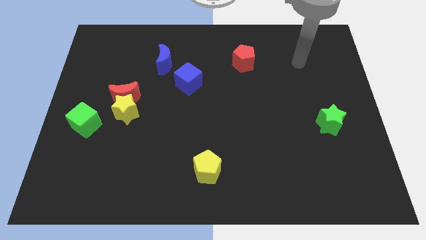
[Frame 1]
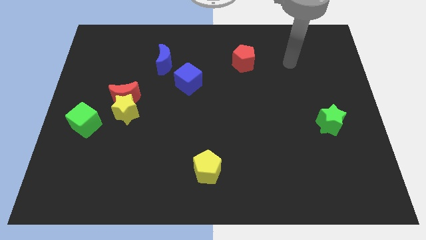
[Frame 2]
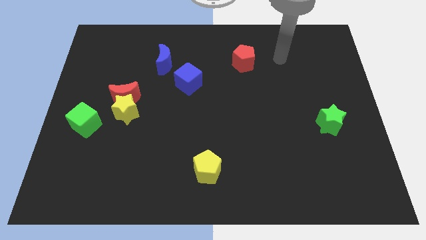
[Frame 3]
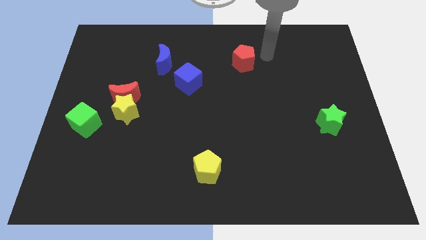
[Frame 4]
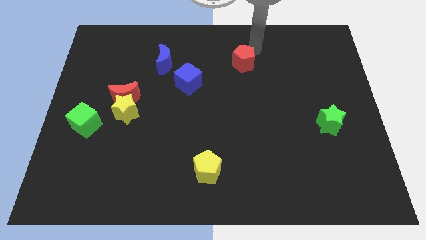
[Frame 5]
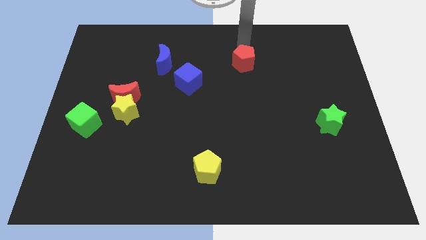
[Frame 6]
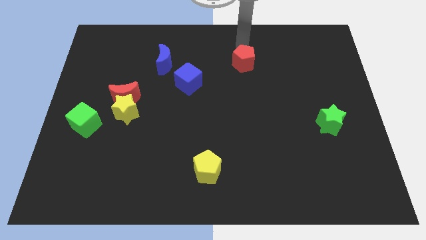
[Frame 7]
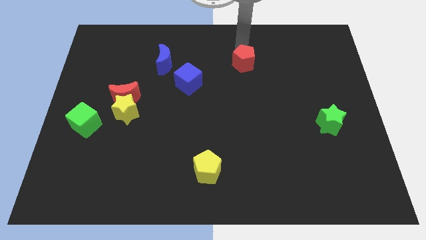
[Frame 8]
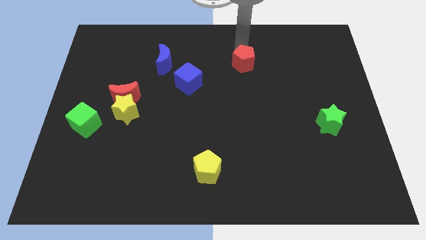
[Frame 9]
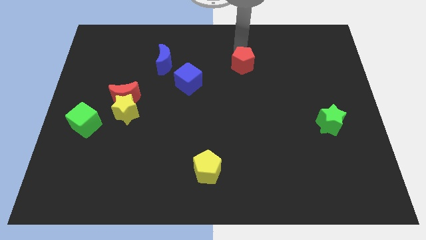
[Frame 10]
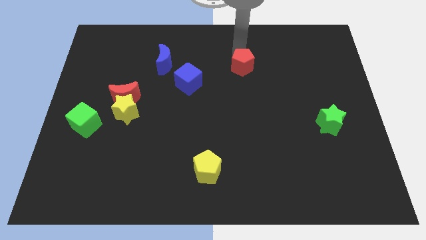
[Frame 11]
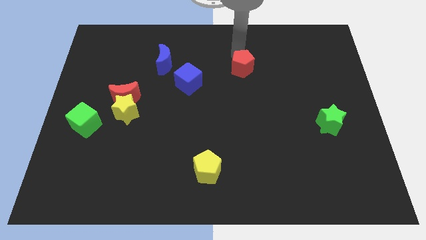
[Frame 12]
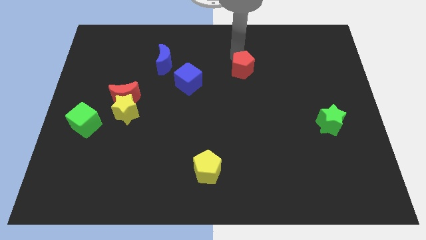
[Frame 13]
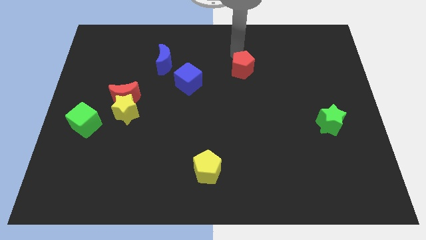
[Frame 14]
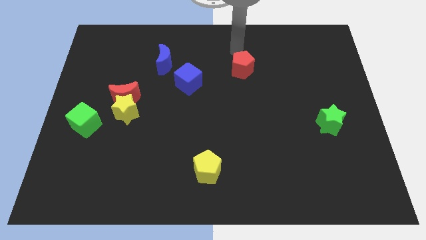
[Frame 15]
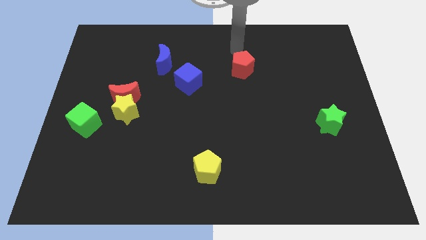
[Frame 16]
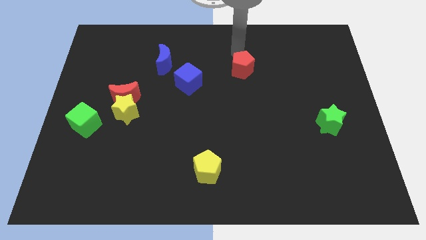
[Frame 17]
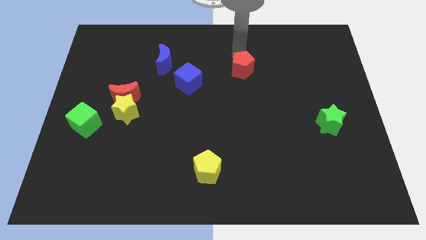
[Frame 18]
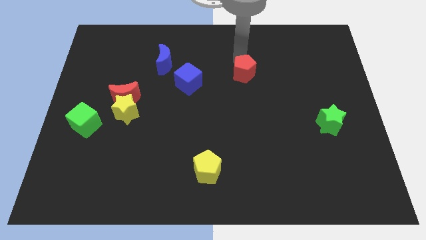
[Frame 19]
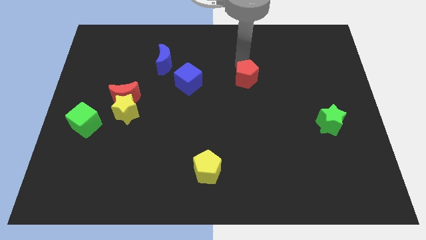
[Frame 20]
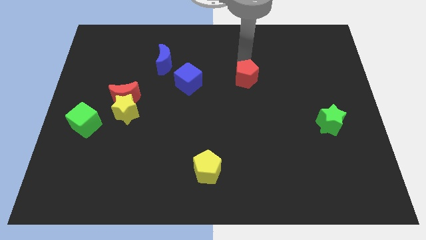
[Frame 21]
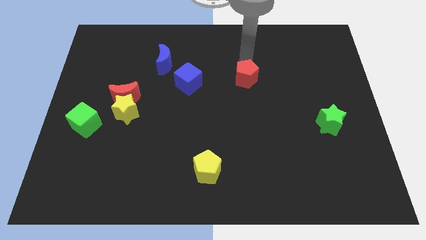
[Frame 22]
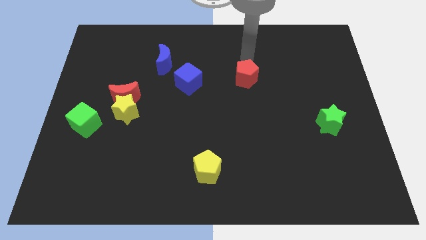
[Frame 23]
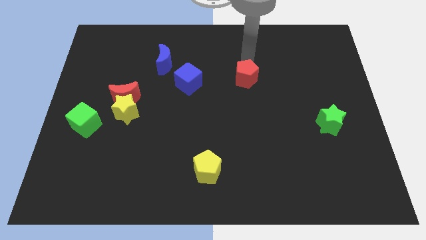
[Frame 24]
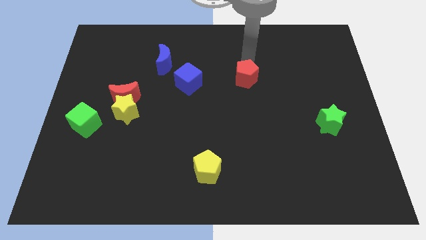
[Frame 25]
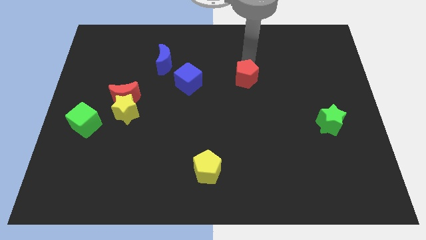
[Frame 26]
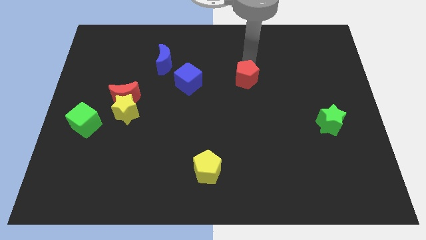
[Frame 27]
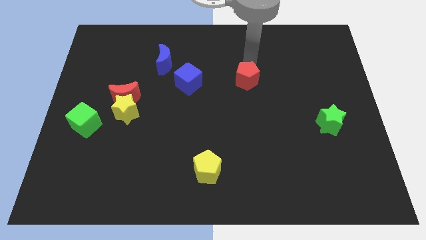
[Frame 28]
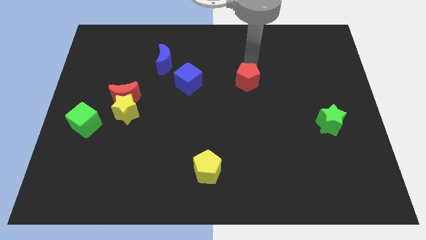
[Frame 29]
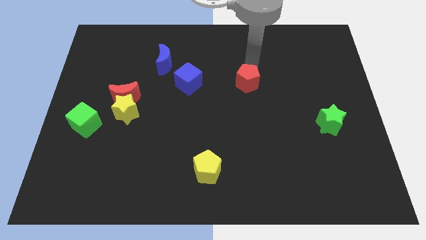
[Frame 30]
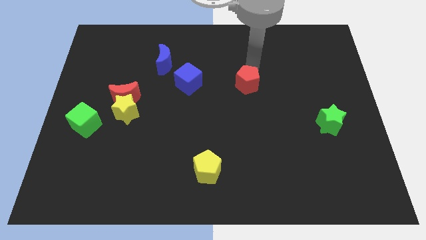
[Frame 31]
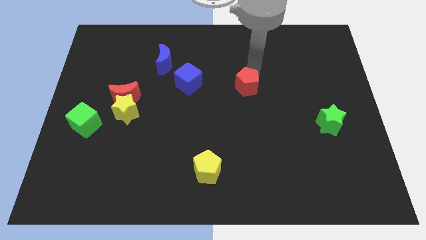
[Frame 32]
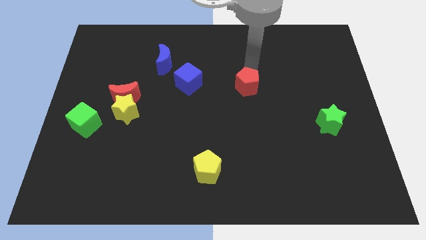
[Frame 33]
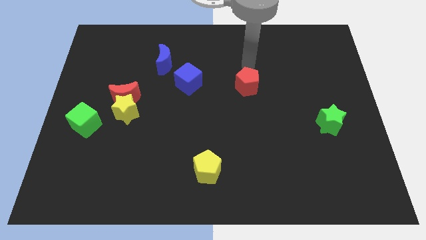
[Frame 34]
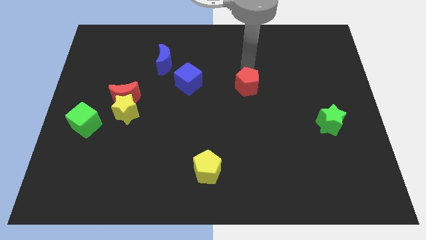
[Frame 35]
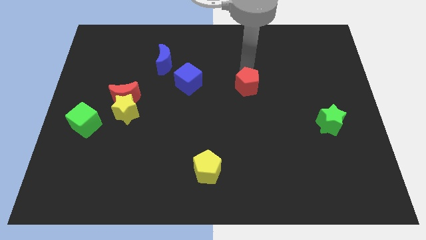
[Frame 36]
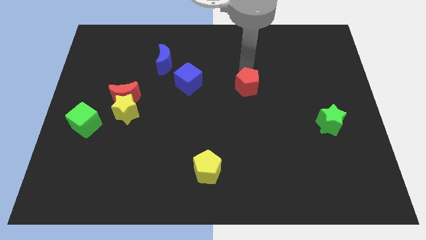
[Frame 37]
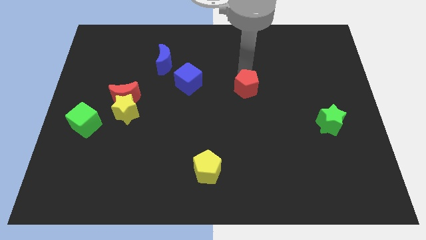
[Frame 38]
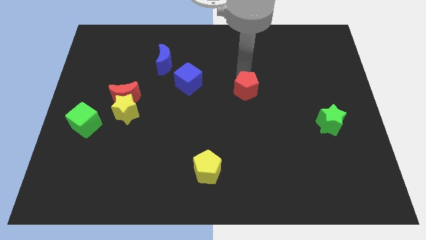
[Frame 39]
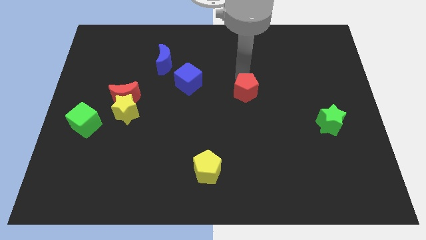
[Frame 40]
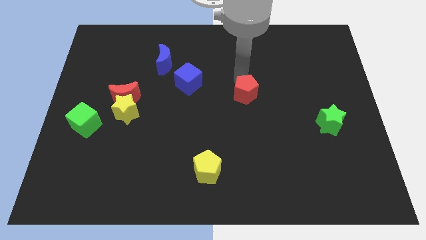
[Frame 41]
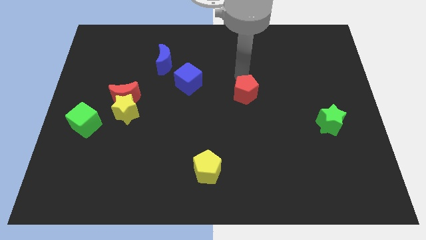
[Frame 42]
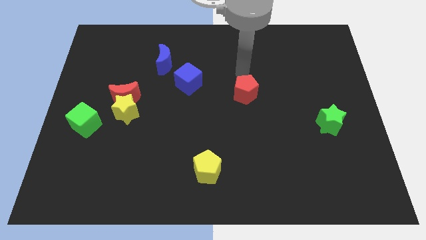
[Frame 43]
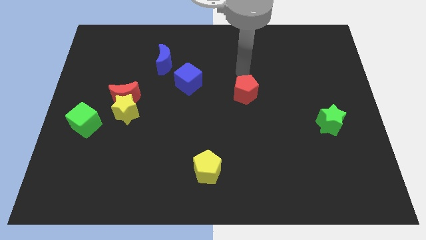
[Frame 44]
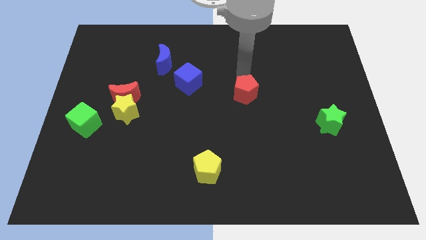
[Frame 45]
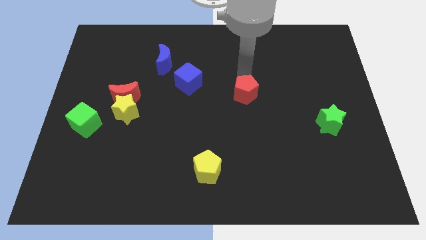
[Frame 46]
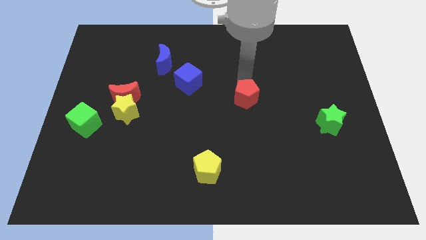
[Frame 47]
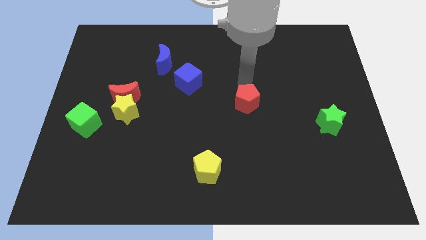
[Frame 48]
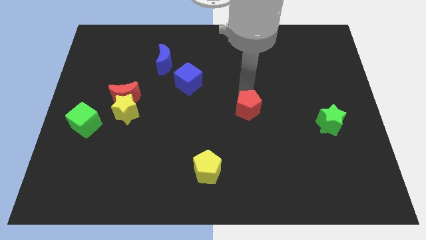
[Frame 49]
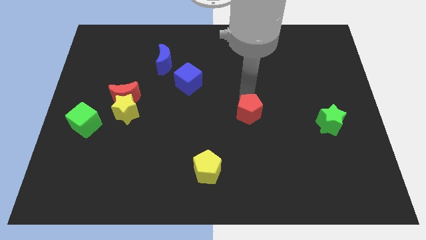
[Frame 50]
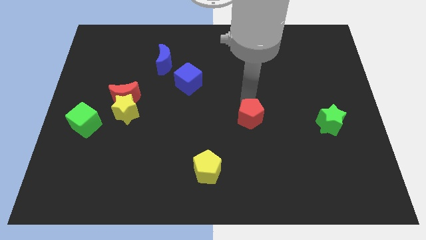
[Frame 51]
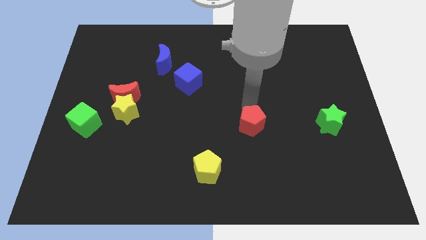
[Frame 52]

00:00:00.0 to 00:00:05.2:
push the red pentagon down

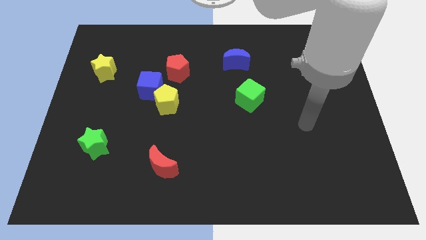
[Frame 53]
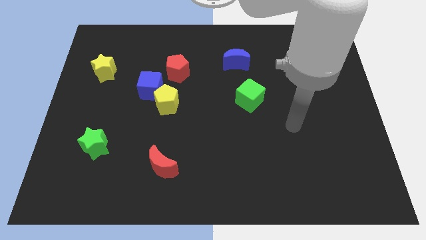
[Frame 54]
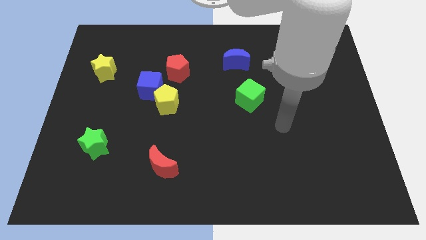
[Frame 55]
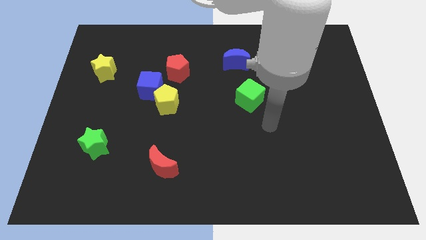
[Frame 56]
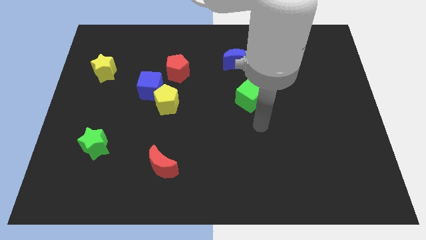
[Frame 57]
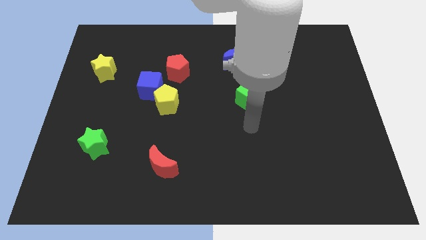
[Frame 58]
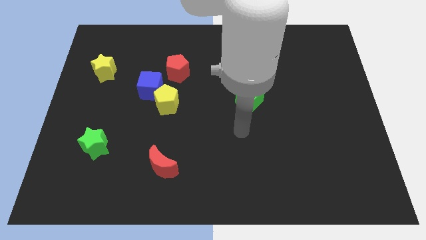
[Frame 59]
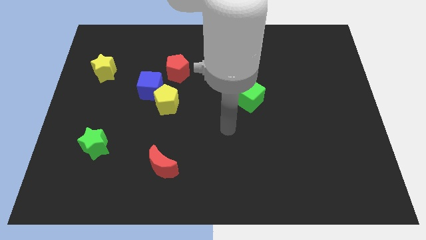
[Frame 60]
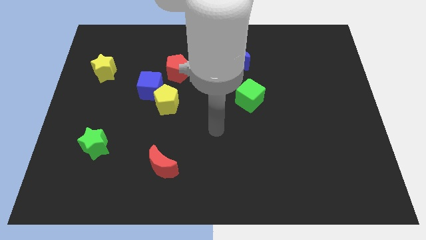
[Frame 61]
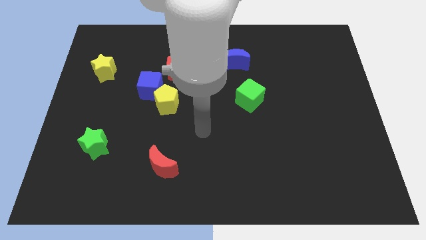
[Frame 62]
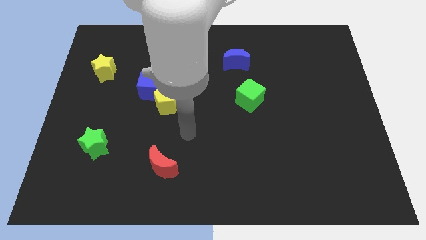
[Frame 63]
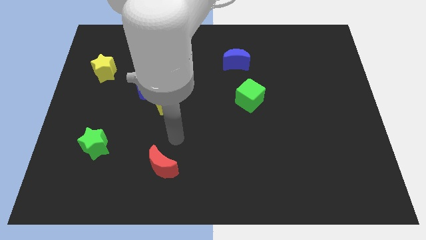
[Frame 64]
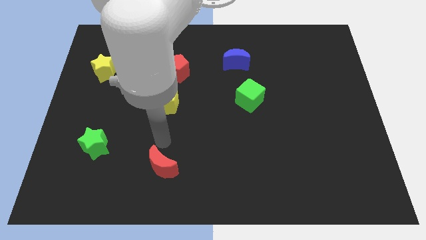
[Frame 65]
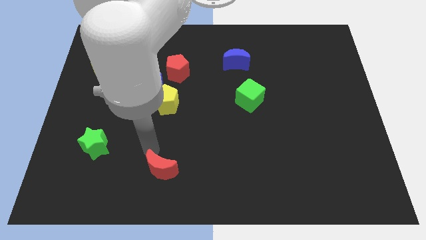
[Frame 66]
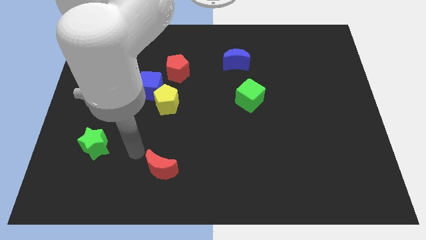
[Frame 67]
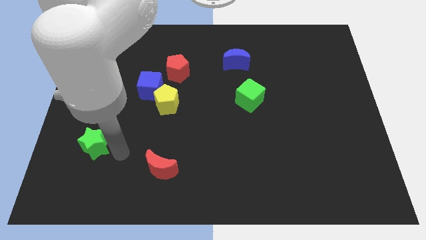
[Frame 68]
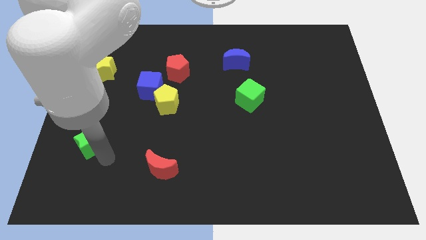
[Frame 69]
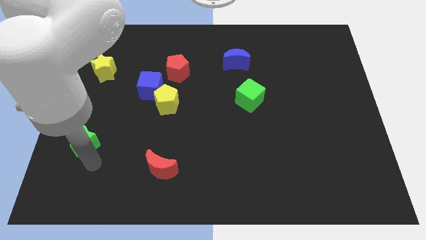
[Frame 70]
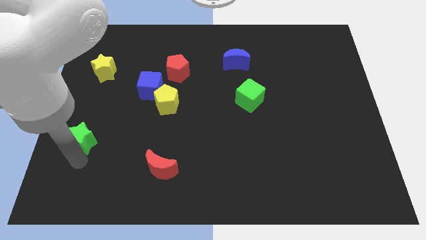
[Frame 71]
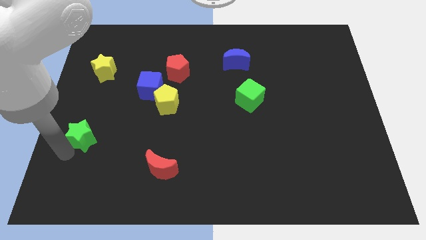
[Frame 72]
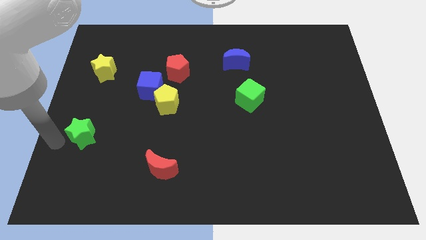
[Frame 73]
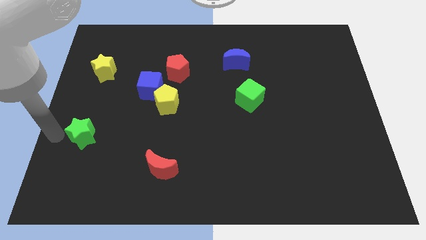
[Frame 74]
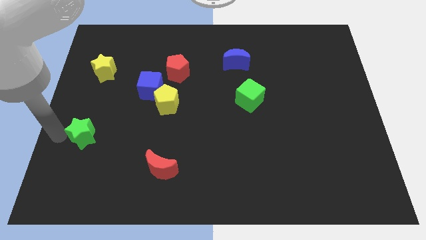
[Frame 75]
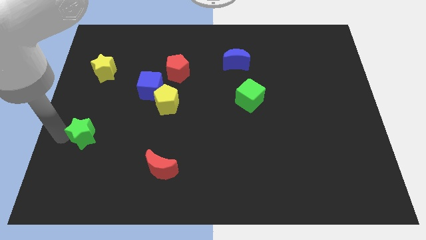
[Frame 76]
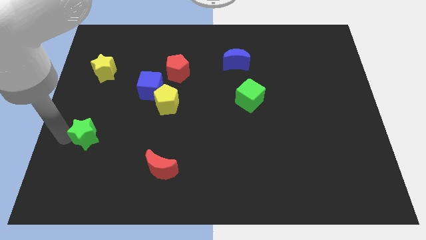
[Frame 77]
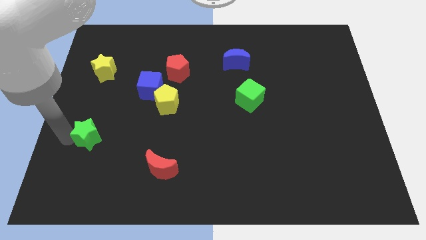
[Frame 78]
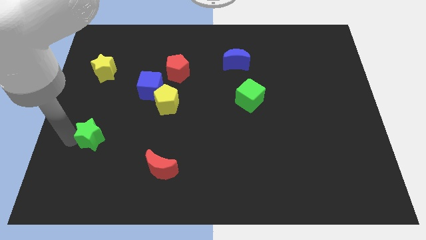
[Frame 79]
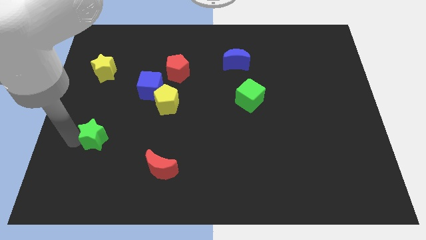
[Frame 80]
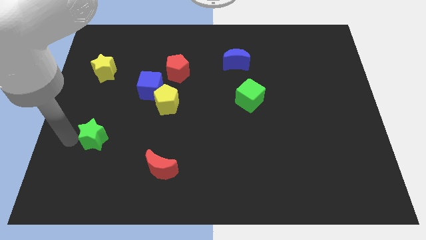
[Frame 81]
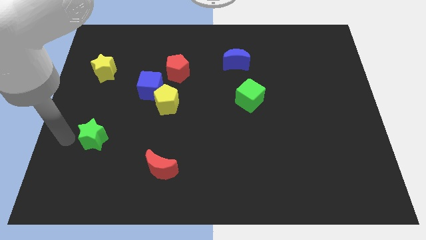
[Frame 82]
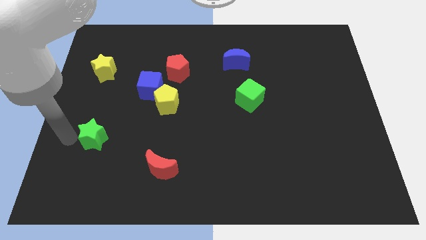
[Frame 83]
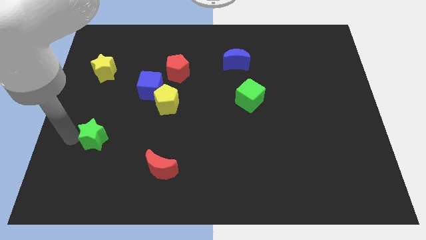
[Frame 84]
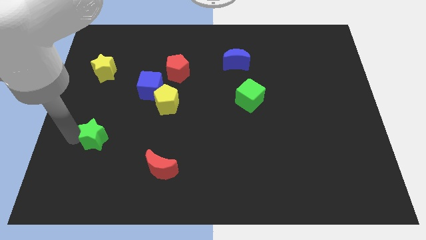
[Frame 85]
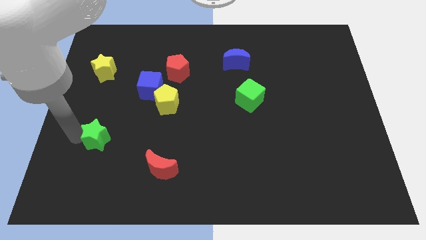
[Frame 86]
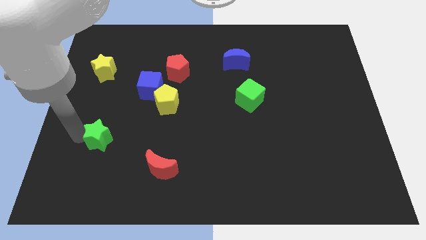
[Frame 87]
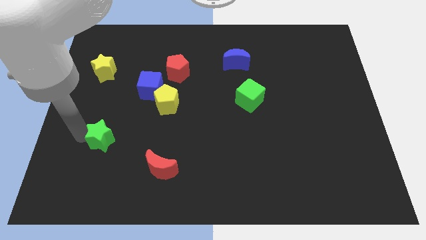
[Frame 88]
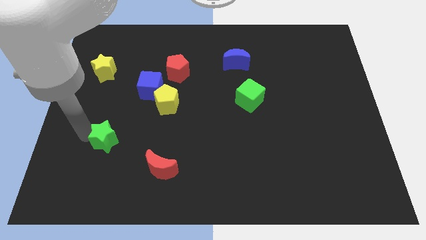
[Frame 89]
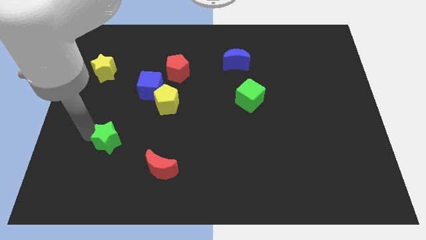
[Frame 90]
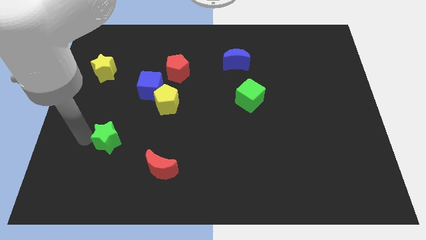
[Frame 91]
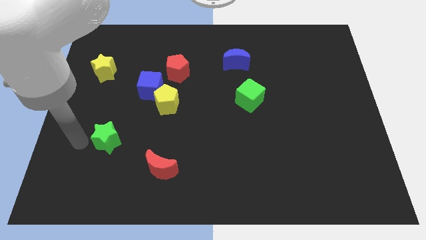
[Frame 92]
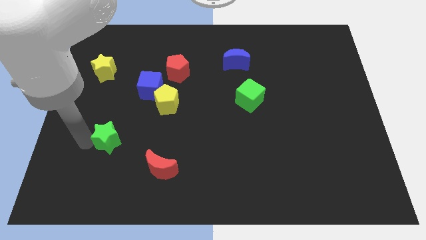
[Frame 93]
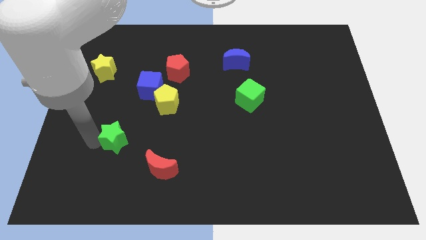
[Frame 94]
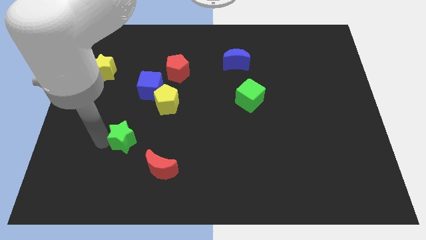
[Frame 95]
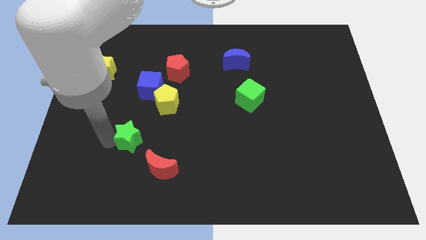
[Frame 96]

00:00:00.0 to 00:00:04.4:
move the green star to the right a little bit
